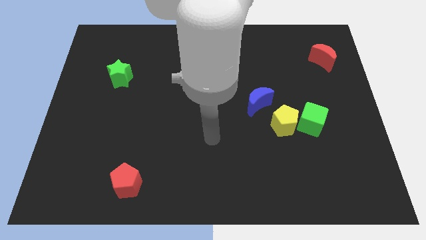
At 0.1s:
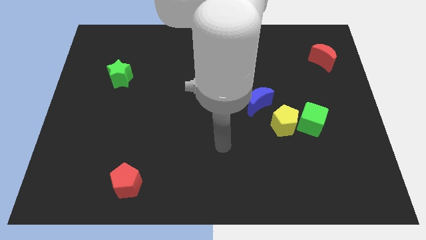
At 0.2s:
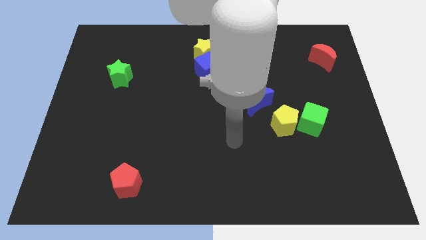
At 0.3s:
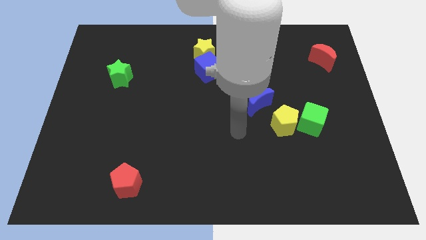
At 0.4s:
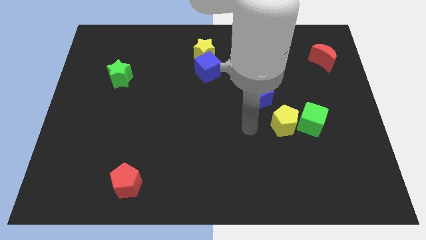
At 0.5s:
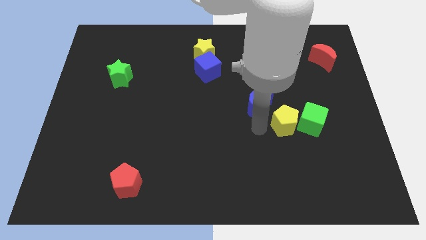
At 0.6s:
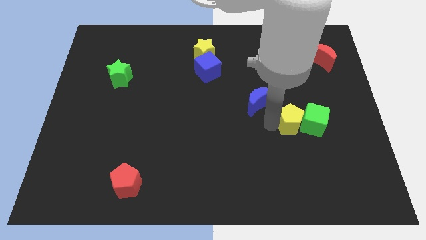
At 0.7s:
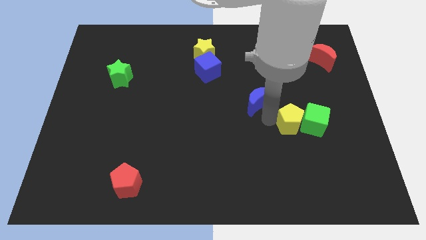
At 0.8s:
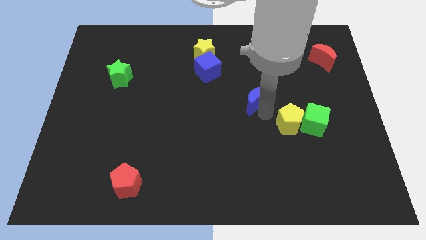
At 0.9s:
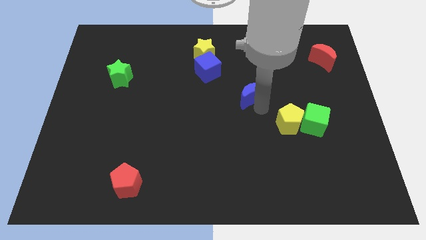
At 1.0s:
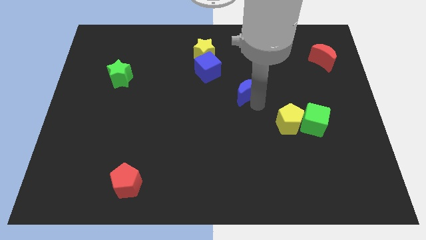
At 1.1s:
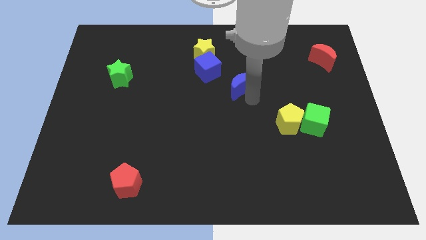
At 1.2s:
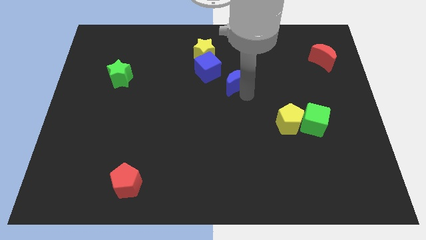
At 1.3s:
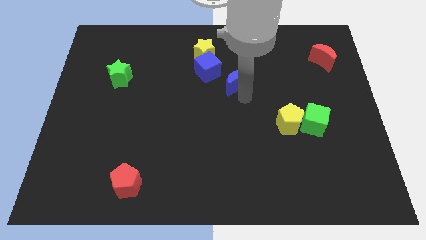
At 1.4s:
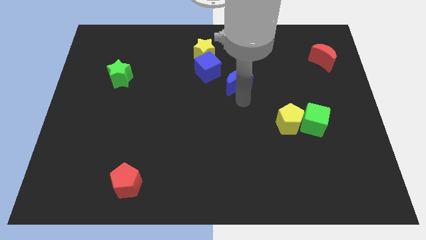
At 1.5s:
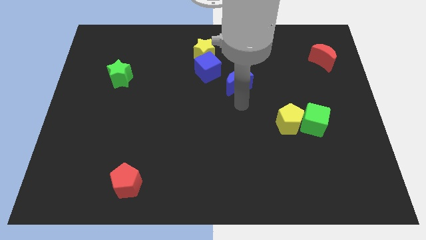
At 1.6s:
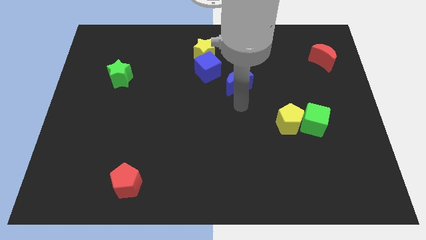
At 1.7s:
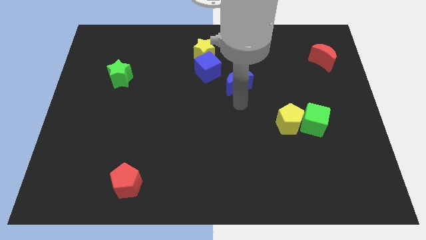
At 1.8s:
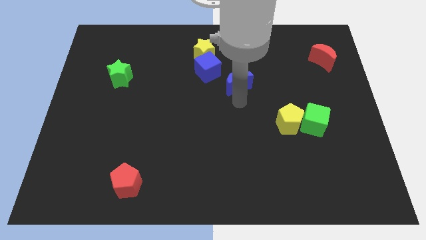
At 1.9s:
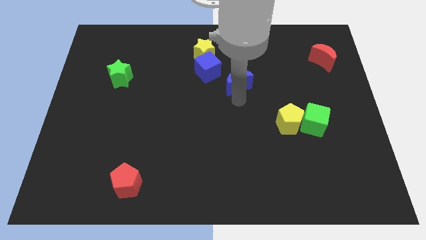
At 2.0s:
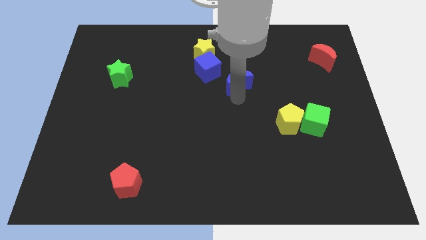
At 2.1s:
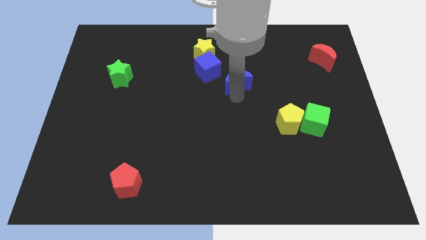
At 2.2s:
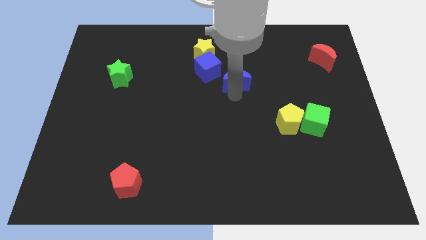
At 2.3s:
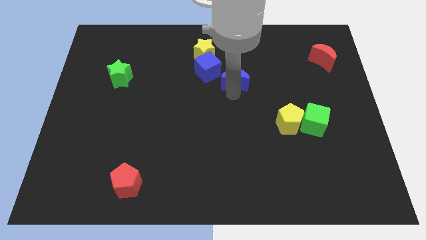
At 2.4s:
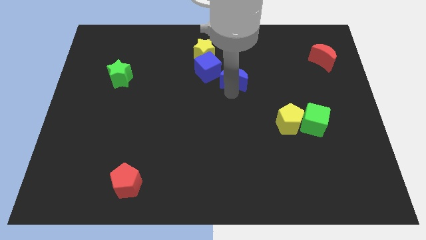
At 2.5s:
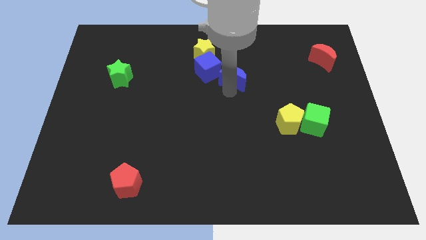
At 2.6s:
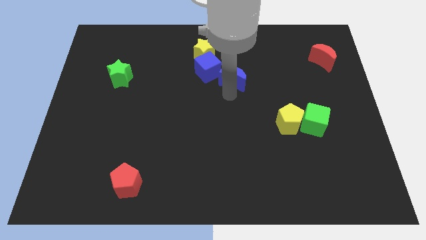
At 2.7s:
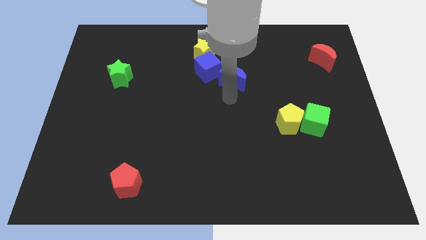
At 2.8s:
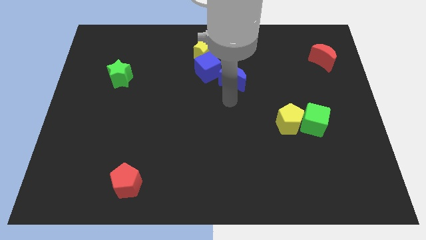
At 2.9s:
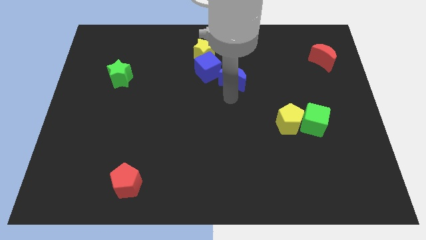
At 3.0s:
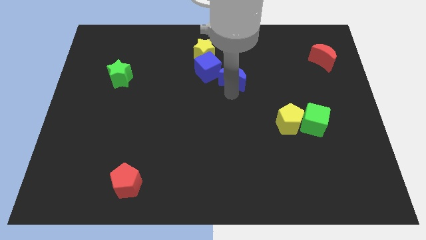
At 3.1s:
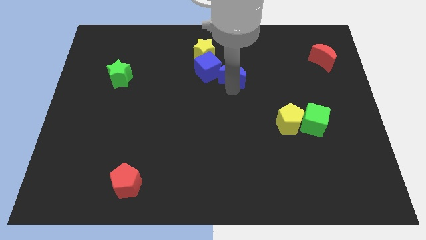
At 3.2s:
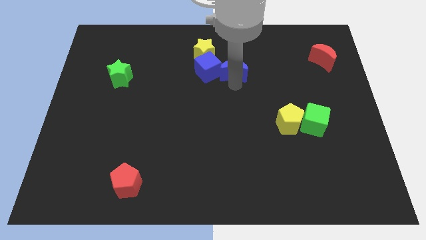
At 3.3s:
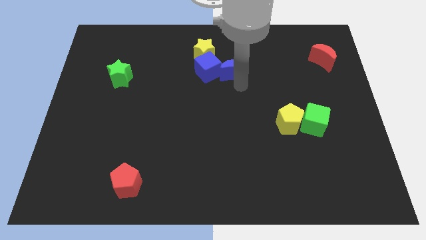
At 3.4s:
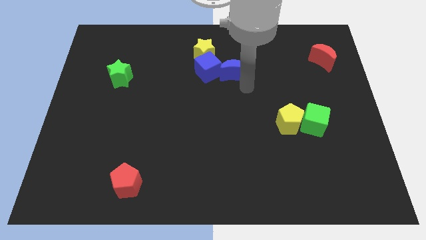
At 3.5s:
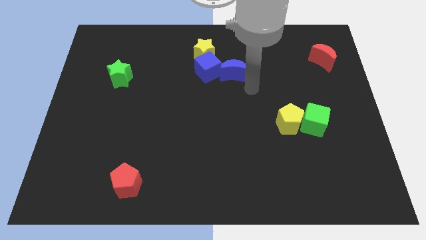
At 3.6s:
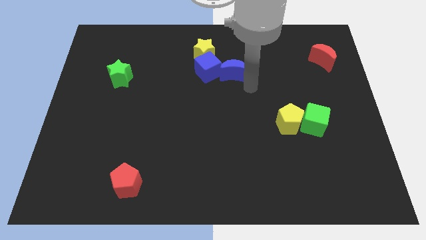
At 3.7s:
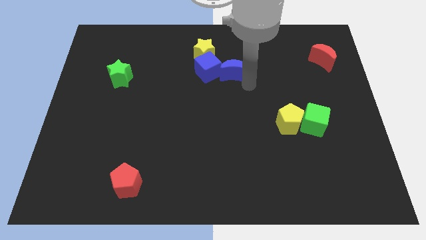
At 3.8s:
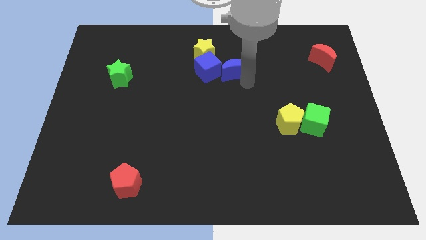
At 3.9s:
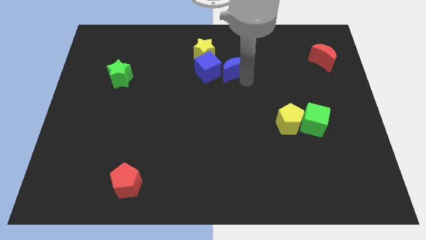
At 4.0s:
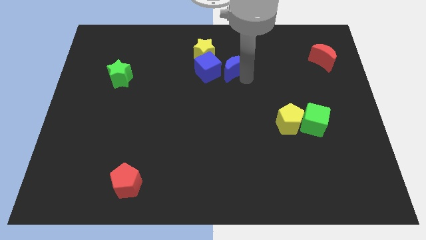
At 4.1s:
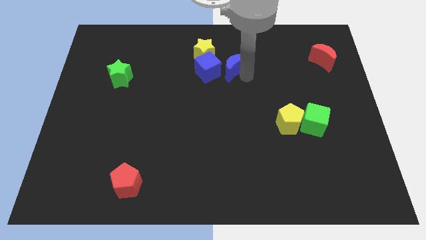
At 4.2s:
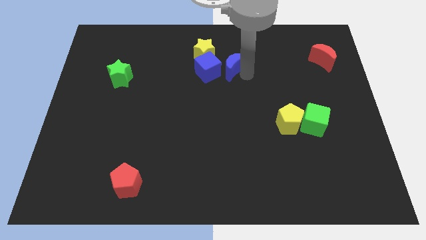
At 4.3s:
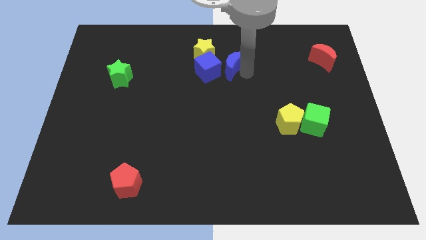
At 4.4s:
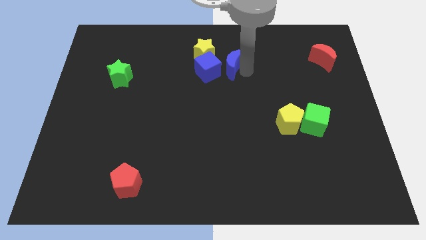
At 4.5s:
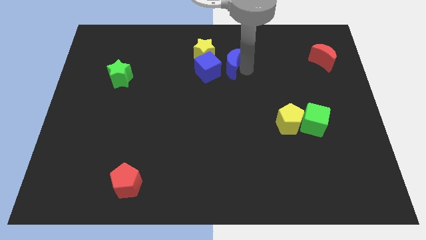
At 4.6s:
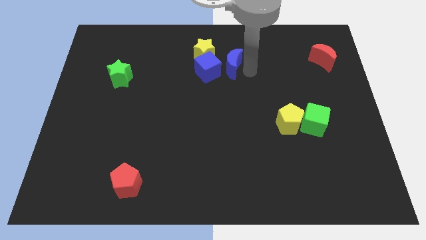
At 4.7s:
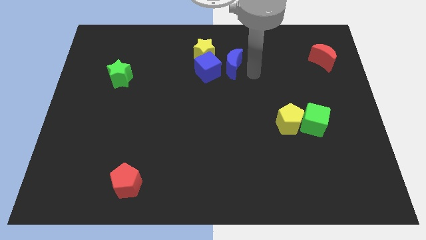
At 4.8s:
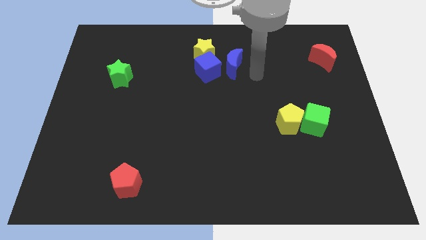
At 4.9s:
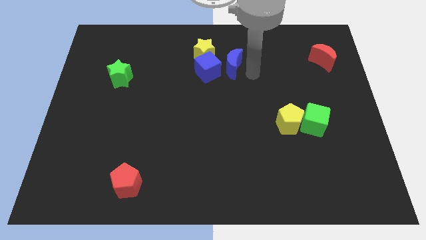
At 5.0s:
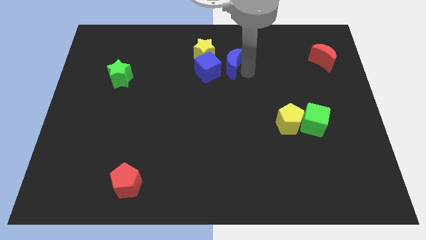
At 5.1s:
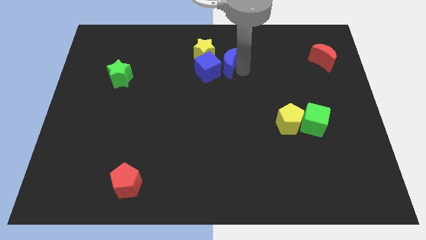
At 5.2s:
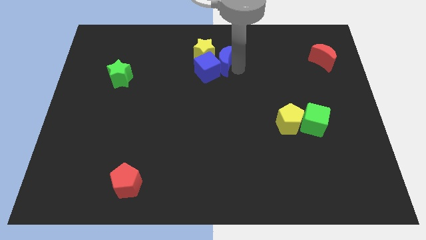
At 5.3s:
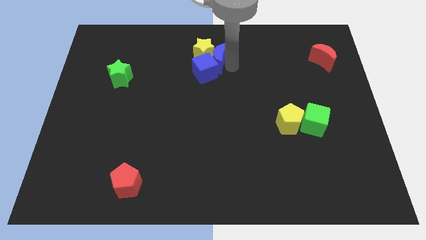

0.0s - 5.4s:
put the blue moon next to the yellow star

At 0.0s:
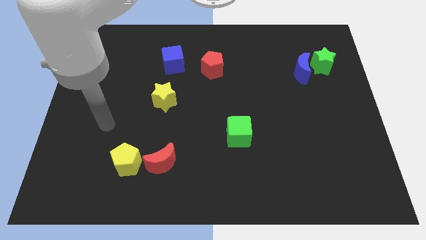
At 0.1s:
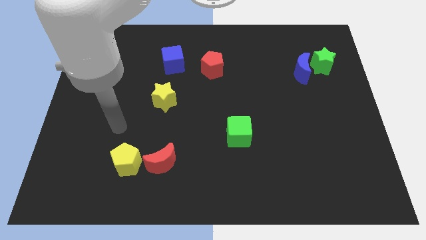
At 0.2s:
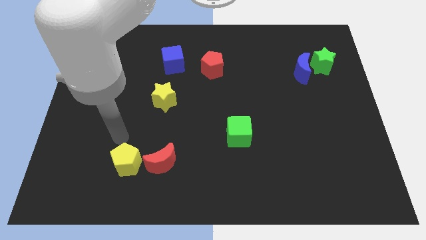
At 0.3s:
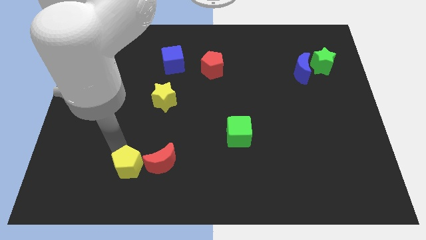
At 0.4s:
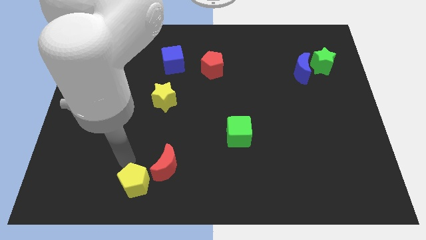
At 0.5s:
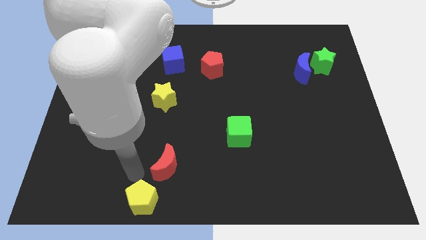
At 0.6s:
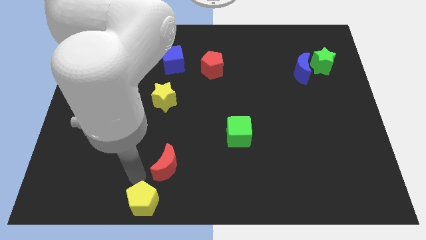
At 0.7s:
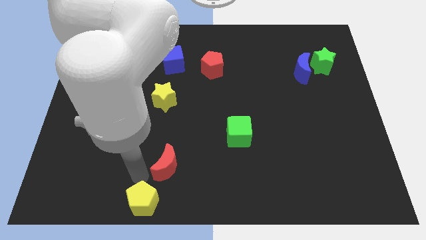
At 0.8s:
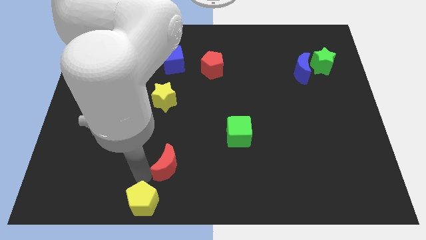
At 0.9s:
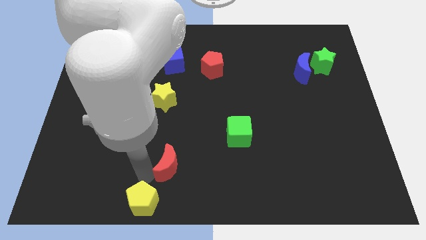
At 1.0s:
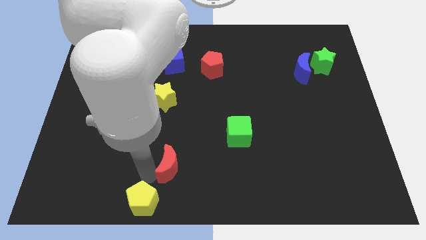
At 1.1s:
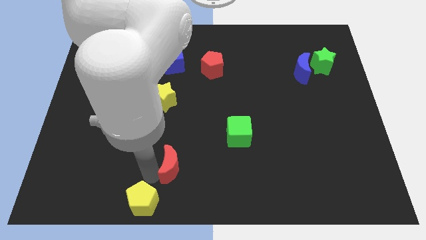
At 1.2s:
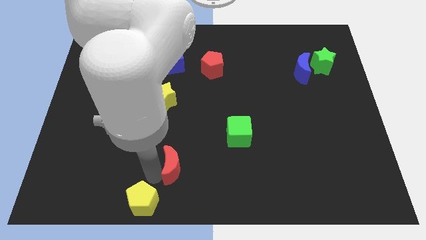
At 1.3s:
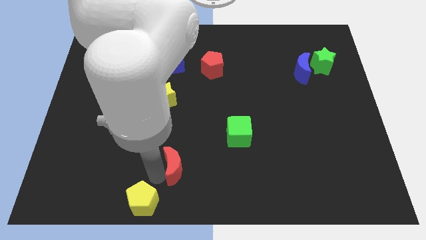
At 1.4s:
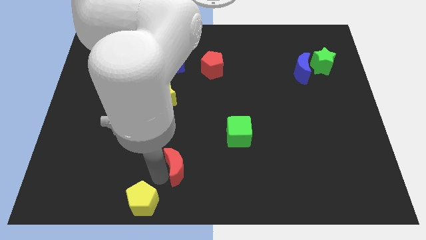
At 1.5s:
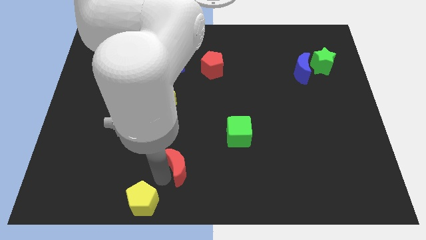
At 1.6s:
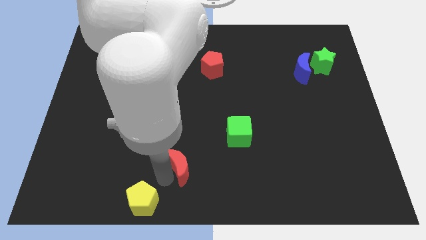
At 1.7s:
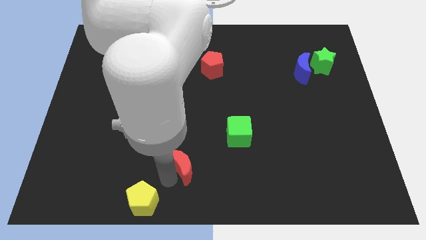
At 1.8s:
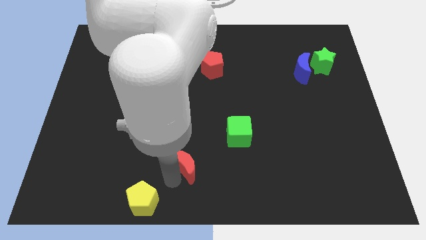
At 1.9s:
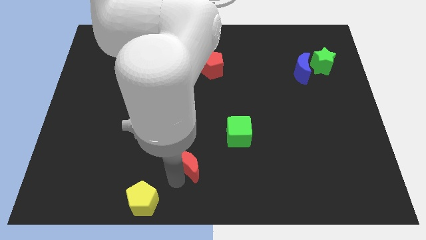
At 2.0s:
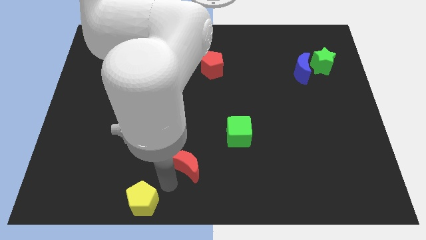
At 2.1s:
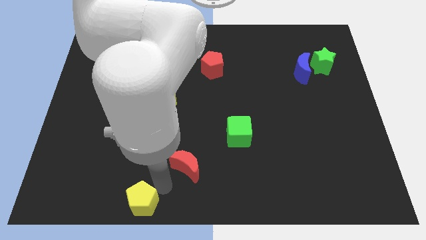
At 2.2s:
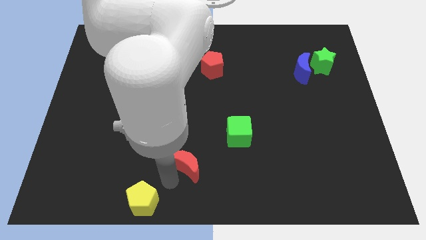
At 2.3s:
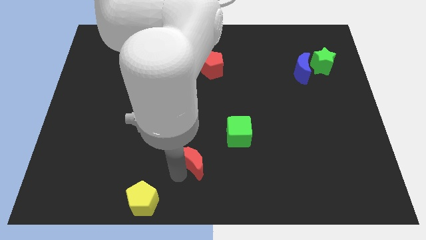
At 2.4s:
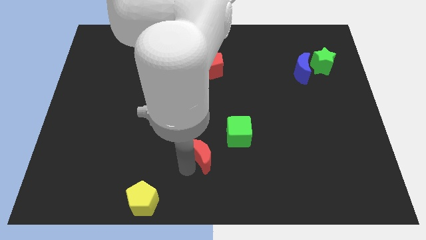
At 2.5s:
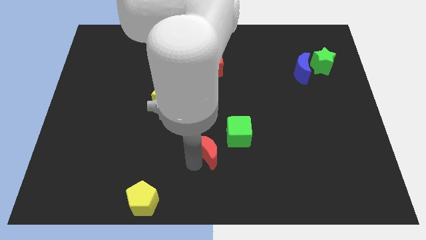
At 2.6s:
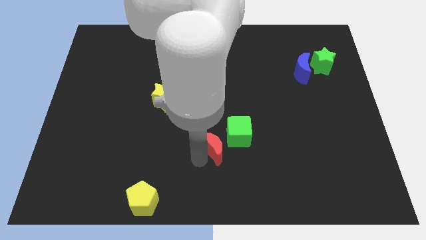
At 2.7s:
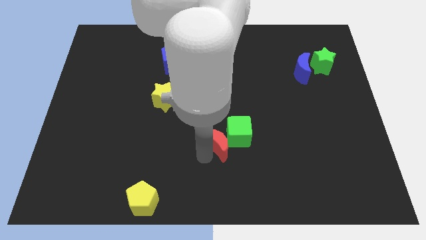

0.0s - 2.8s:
slide the red moon towards the green cube
